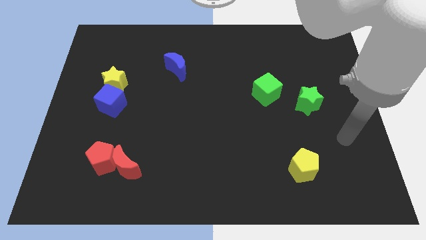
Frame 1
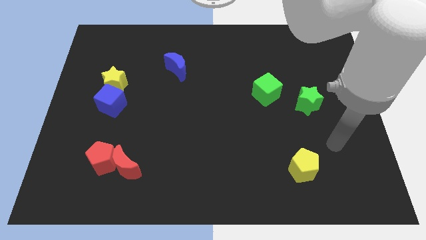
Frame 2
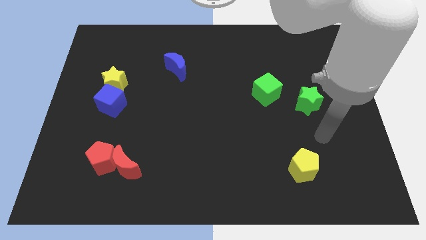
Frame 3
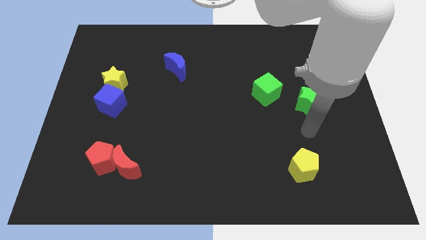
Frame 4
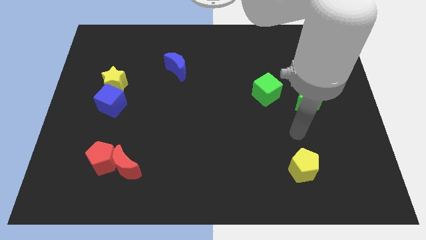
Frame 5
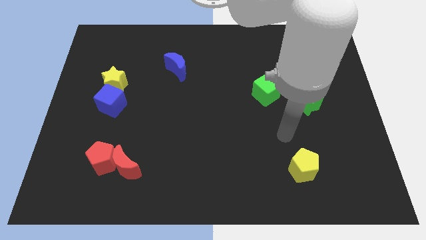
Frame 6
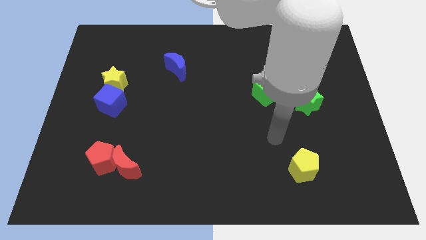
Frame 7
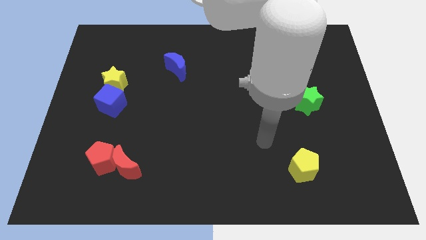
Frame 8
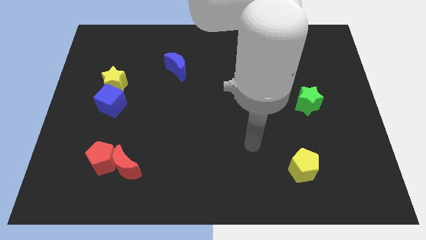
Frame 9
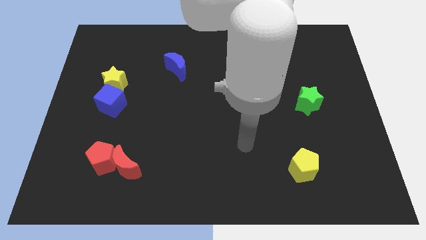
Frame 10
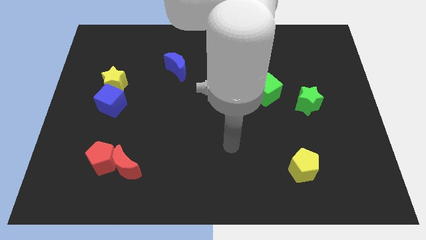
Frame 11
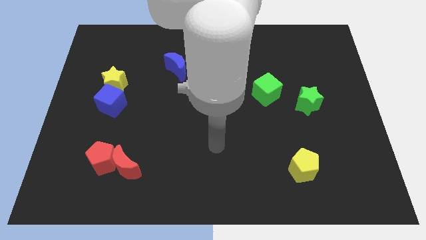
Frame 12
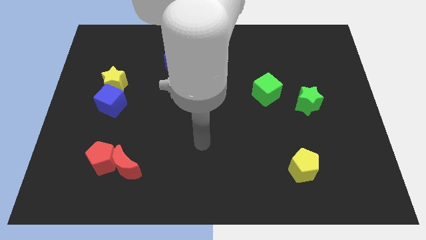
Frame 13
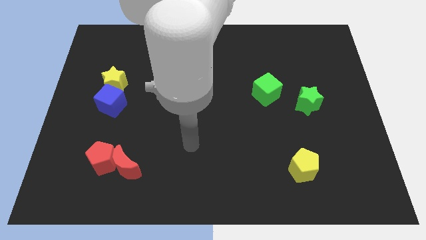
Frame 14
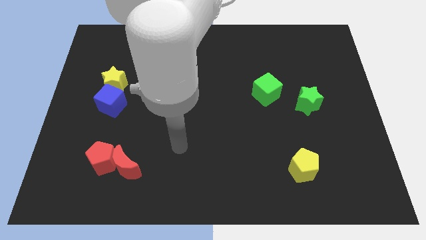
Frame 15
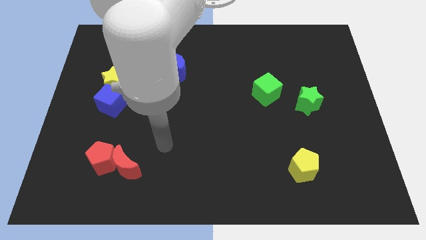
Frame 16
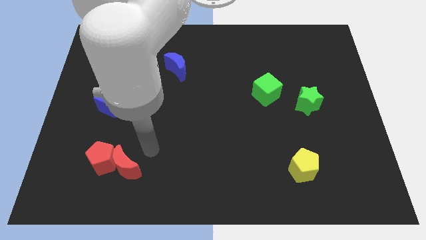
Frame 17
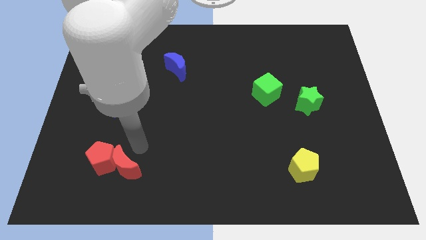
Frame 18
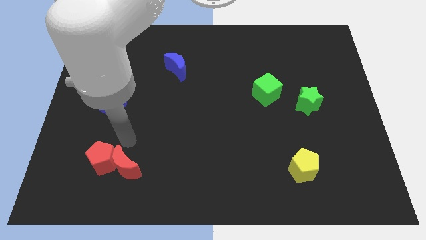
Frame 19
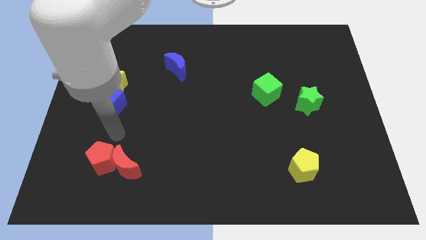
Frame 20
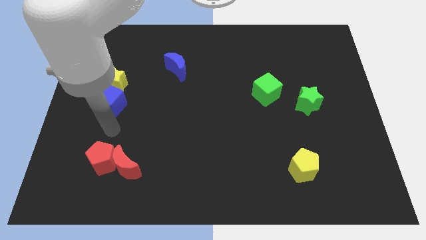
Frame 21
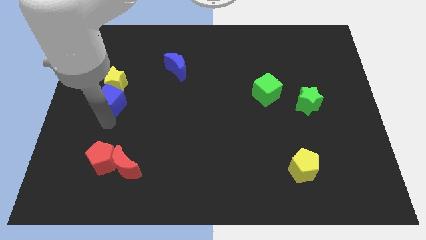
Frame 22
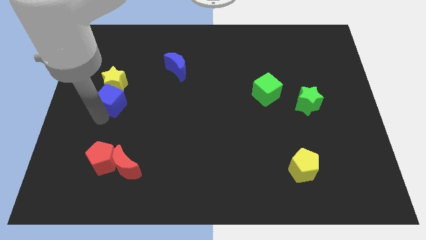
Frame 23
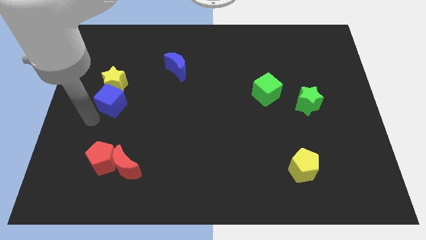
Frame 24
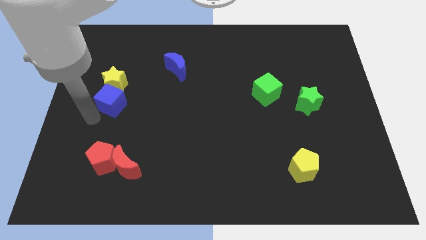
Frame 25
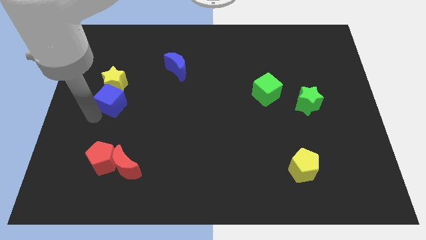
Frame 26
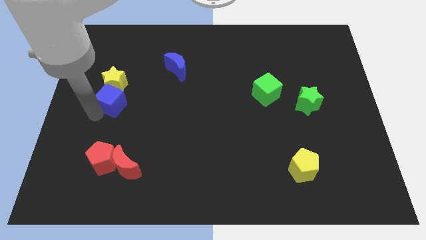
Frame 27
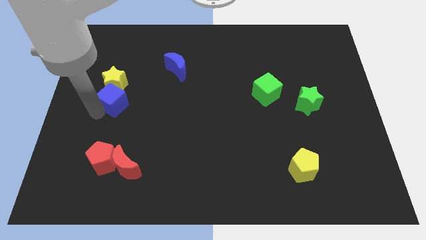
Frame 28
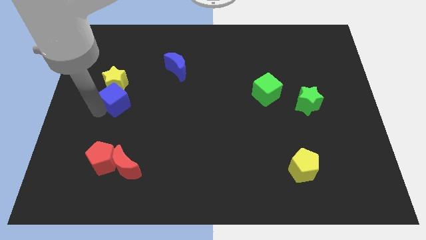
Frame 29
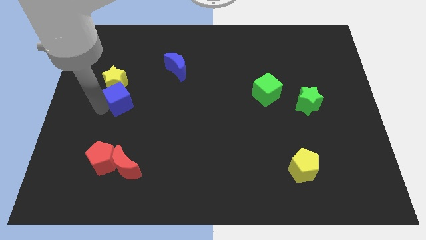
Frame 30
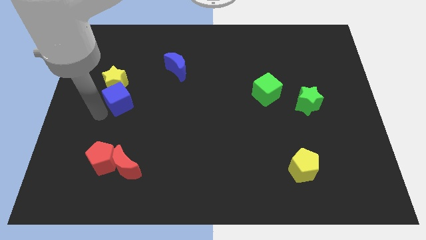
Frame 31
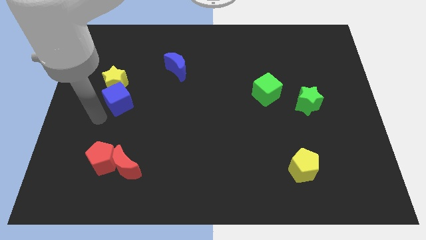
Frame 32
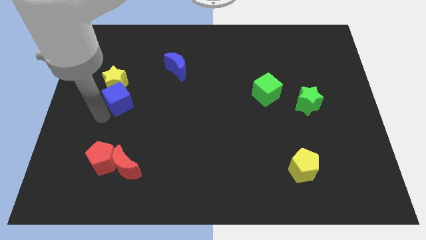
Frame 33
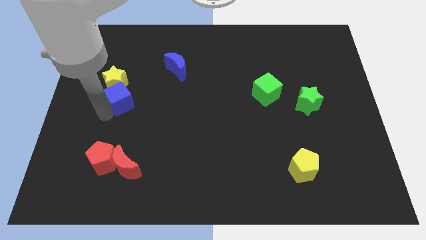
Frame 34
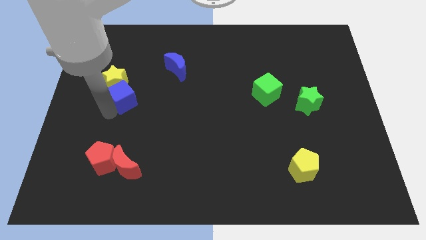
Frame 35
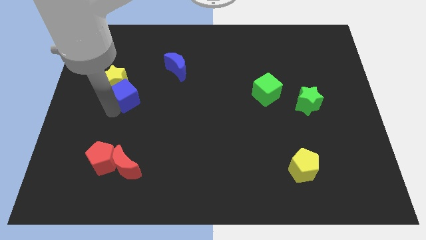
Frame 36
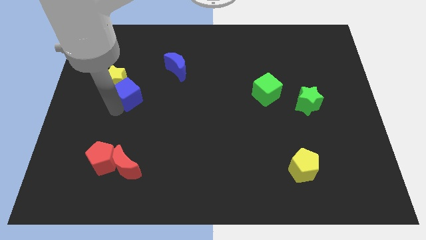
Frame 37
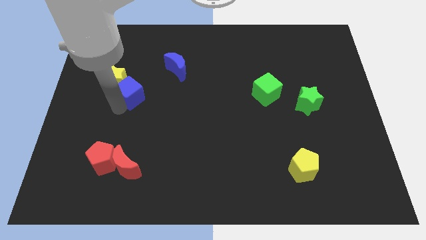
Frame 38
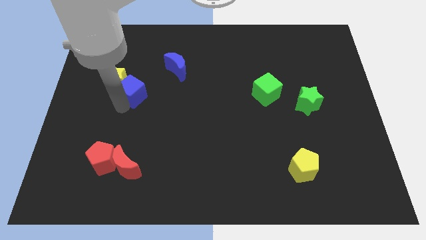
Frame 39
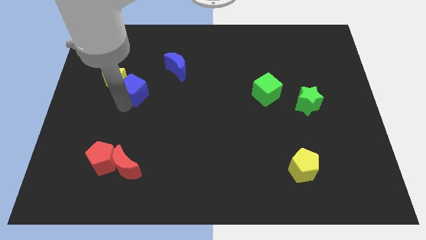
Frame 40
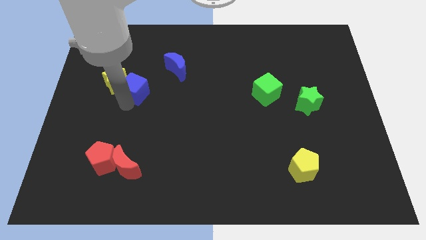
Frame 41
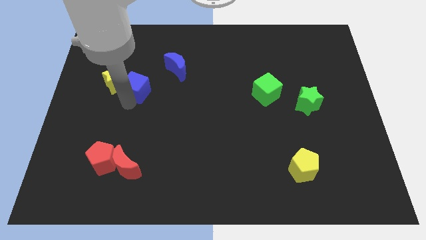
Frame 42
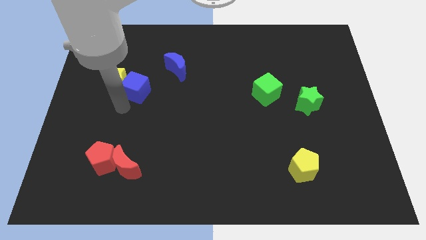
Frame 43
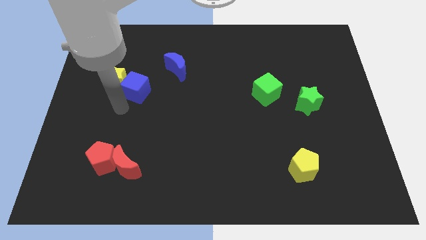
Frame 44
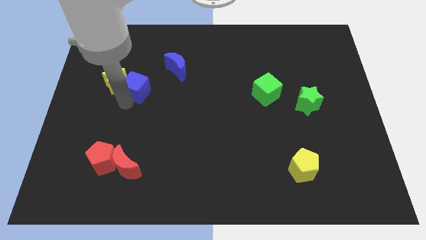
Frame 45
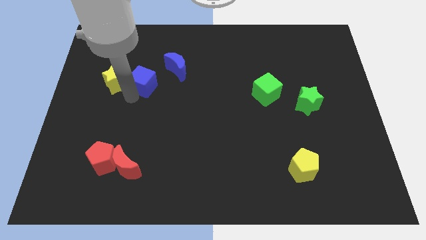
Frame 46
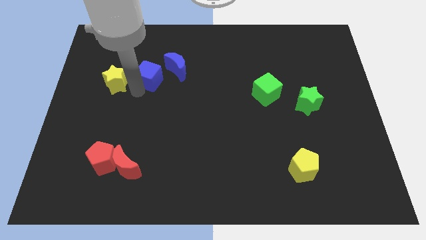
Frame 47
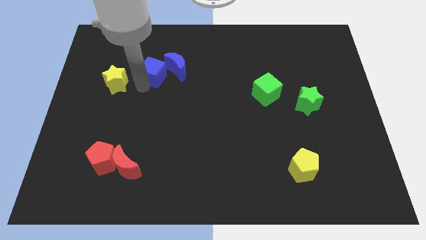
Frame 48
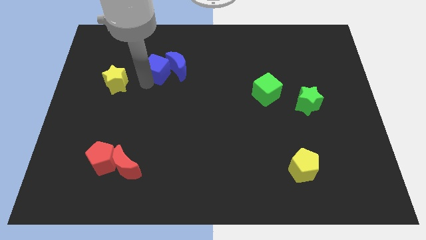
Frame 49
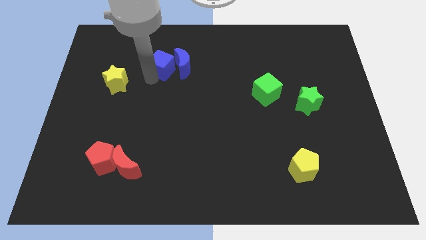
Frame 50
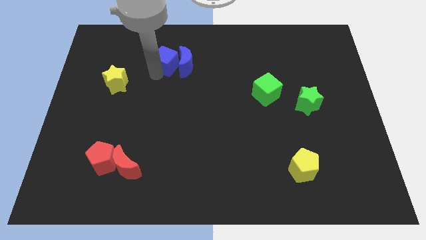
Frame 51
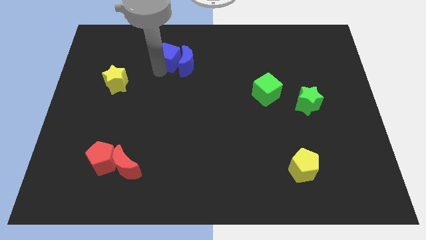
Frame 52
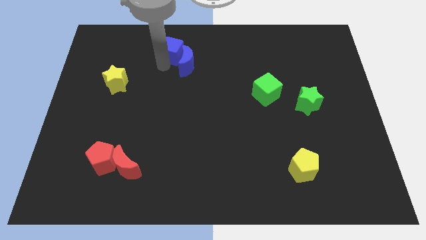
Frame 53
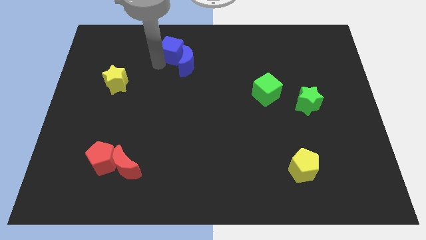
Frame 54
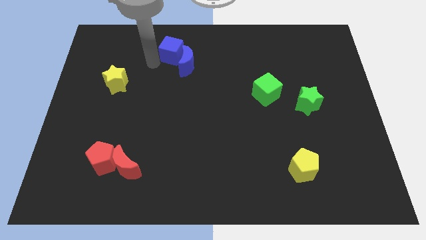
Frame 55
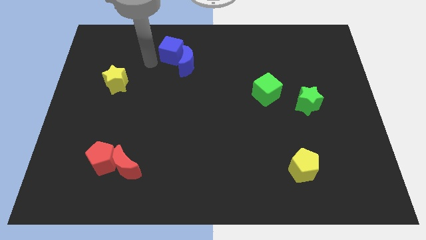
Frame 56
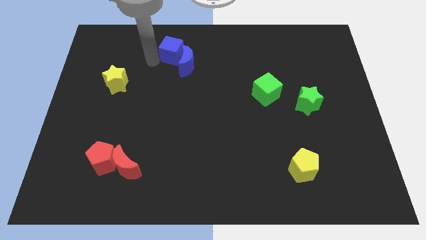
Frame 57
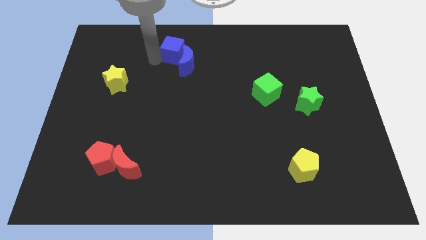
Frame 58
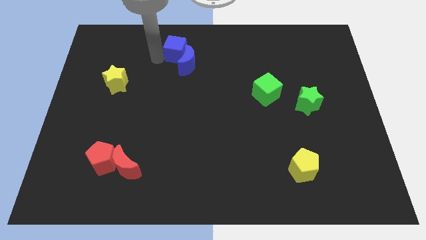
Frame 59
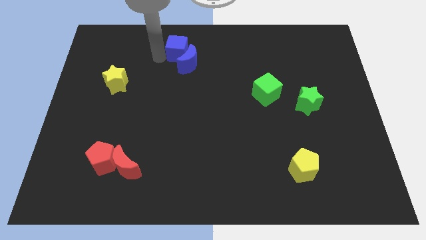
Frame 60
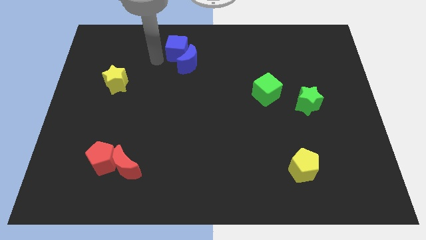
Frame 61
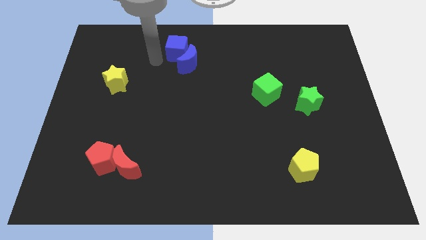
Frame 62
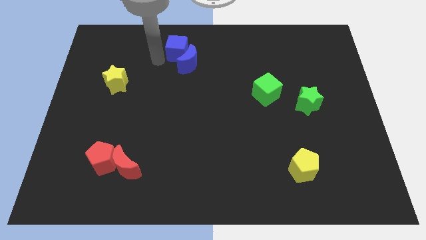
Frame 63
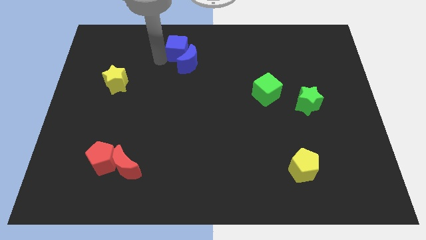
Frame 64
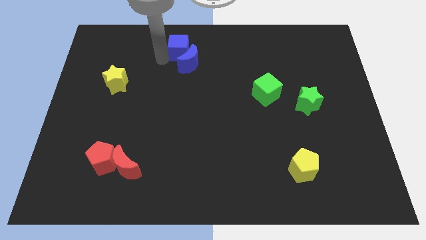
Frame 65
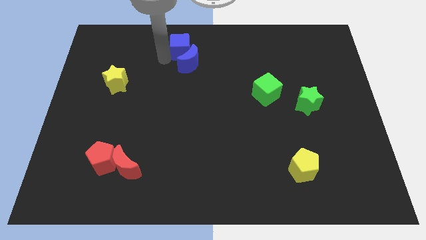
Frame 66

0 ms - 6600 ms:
slide the blue cube to the top side
